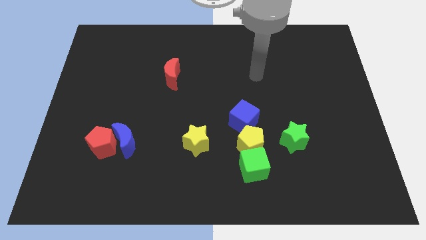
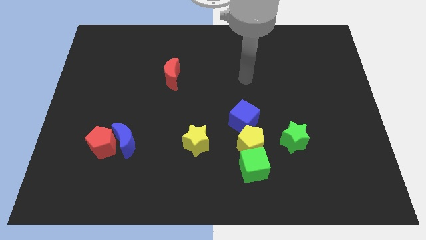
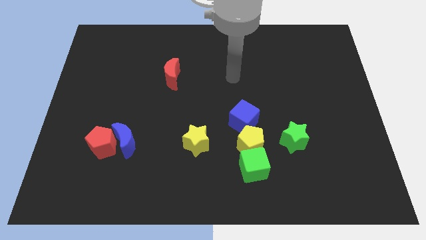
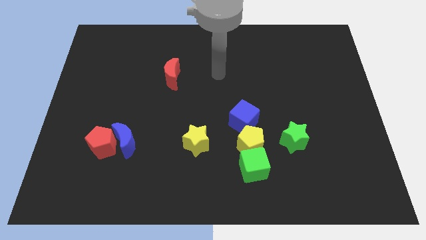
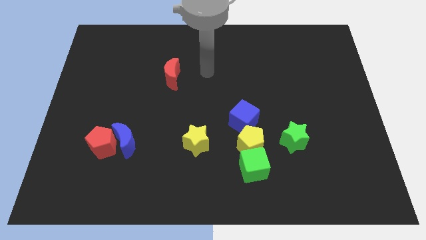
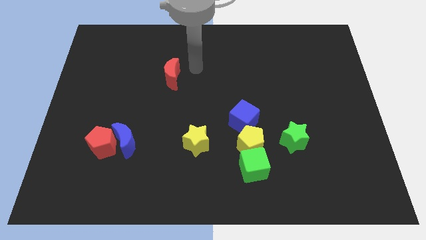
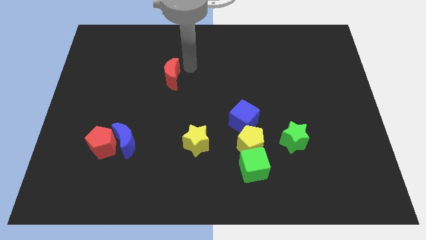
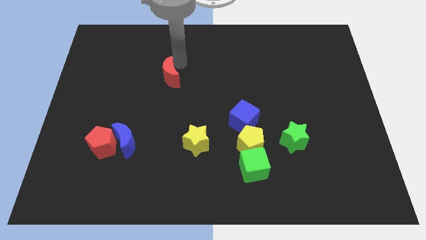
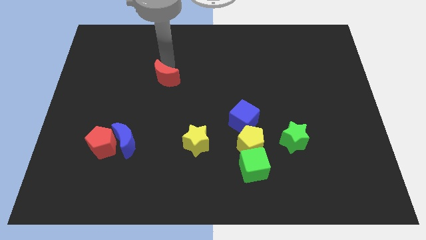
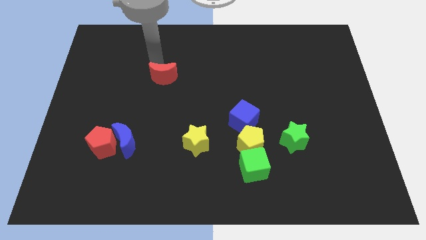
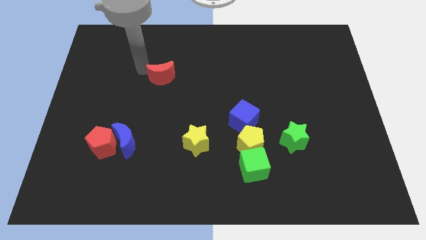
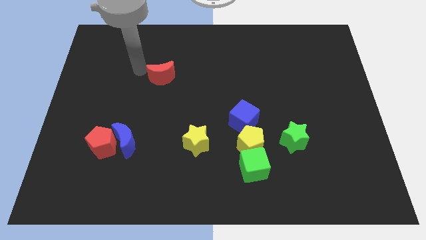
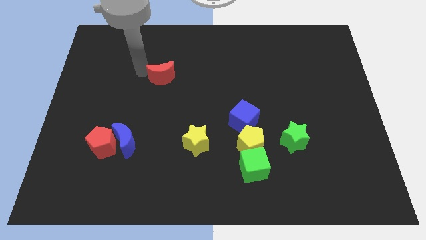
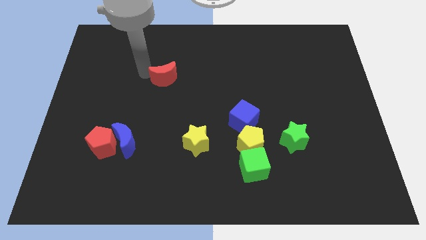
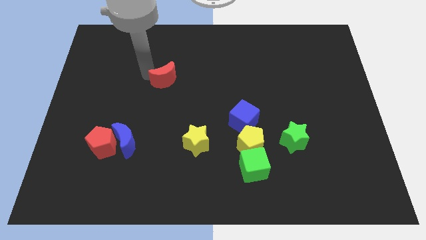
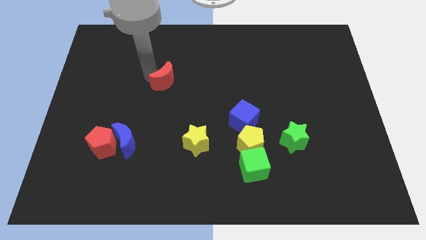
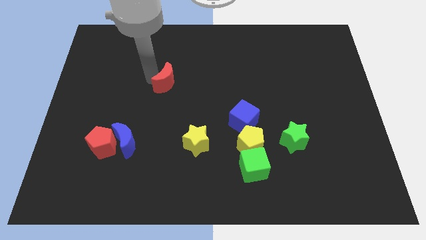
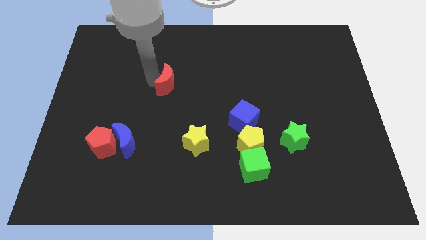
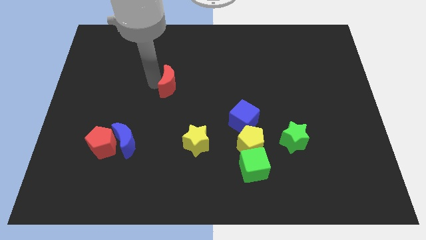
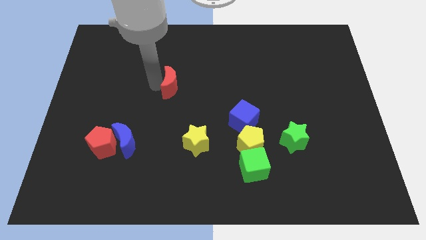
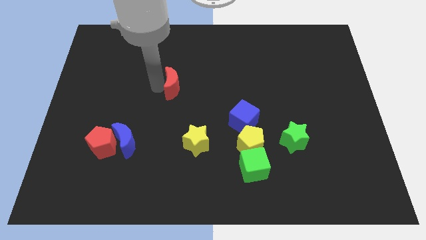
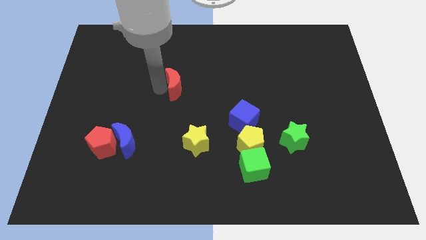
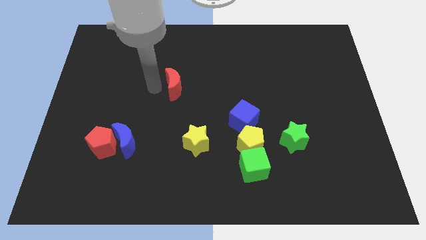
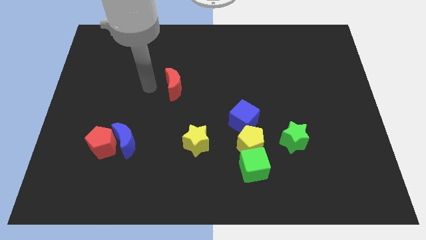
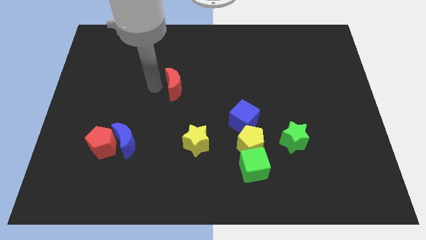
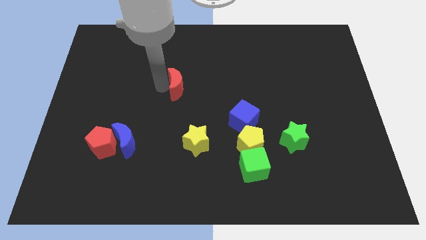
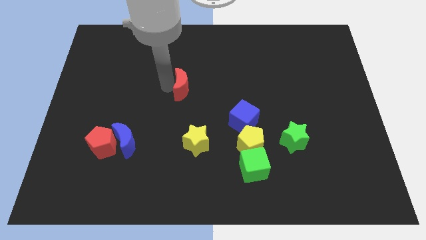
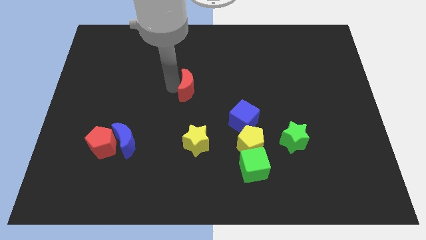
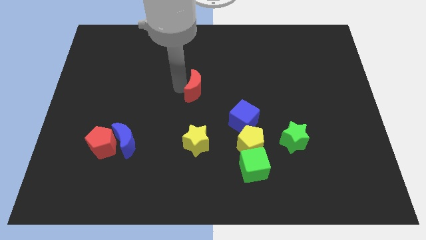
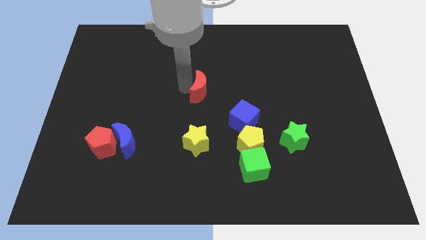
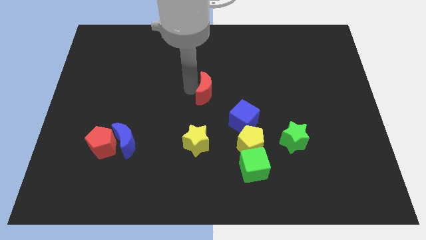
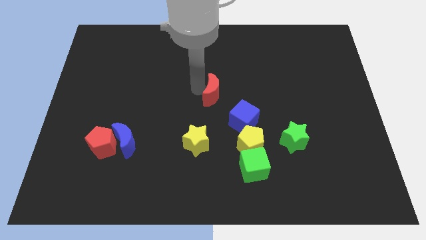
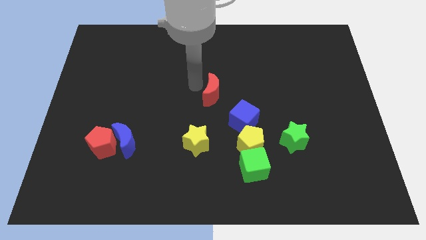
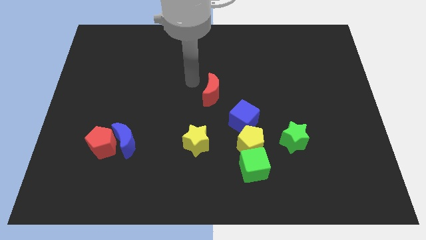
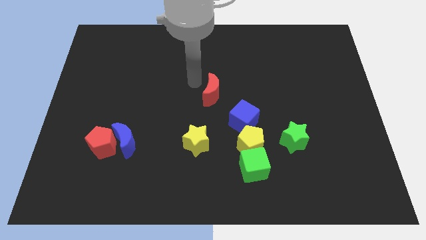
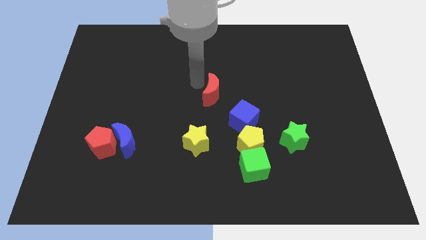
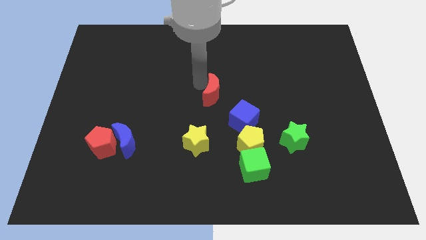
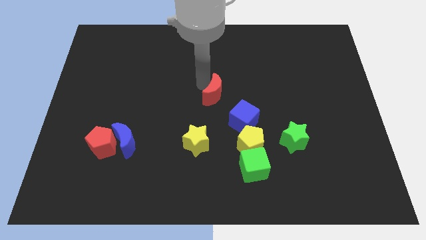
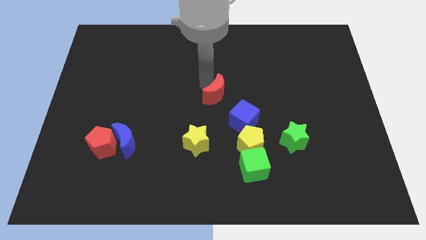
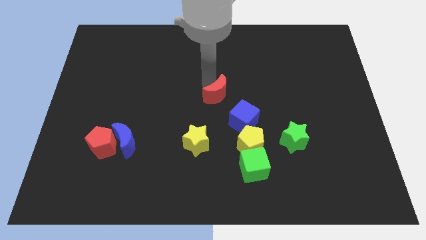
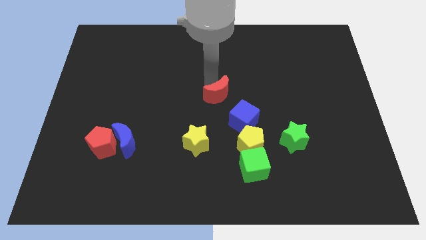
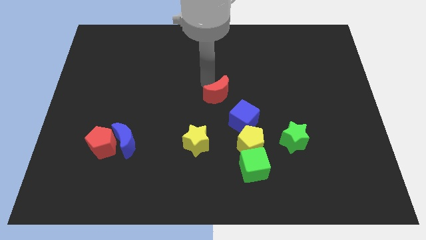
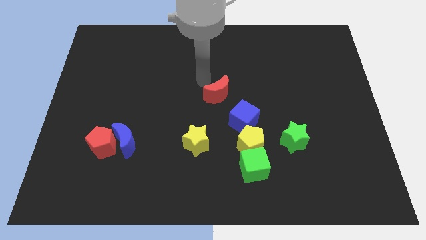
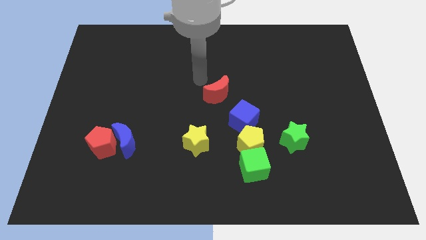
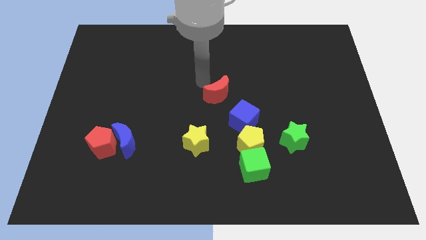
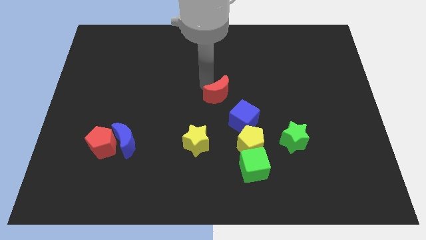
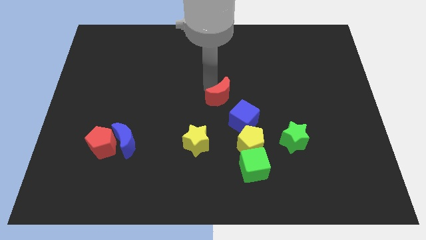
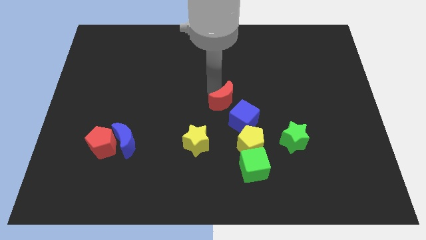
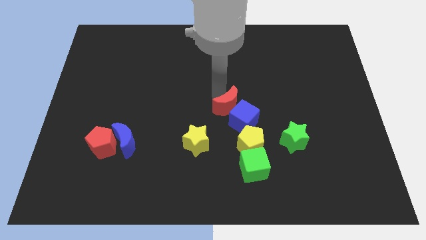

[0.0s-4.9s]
move the red moon towards the blue cube

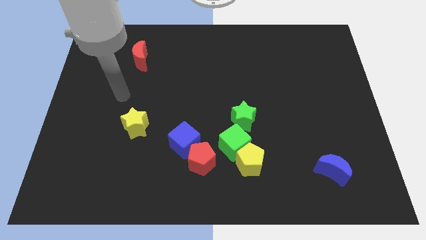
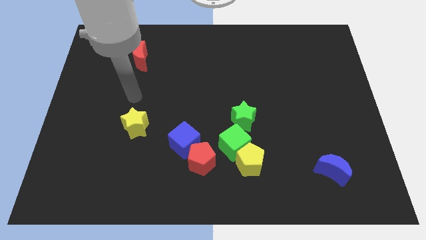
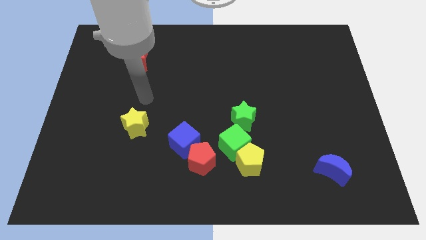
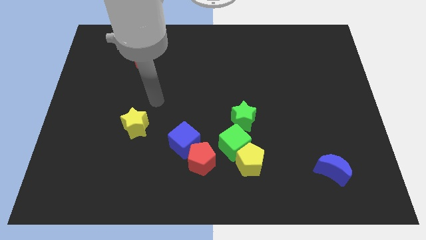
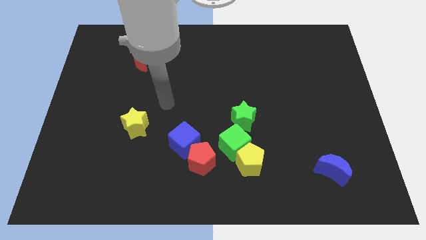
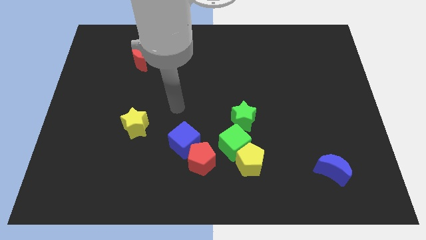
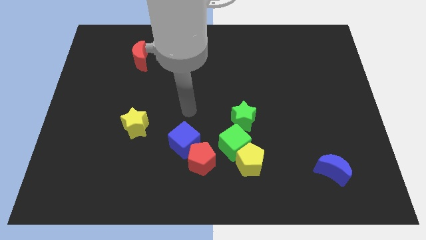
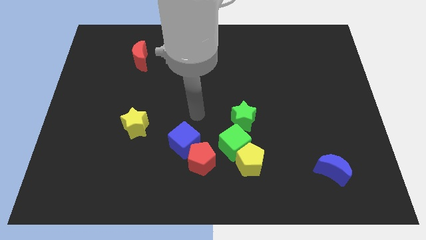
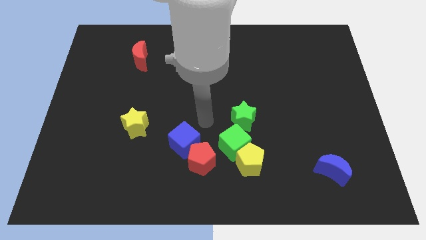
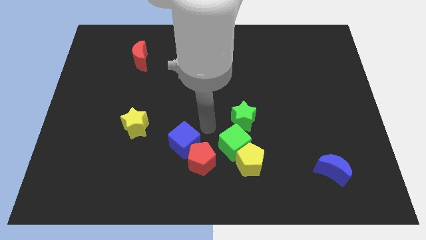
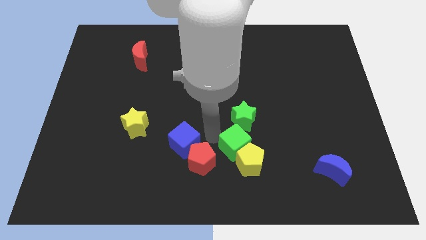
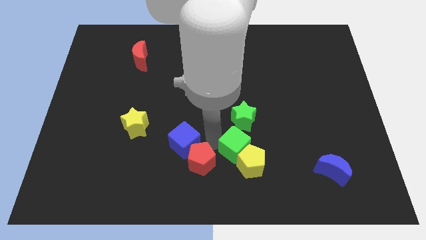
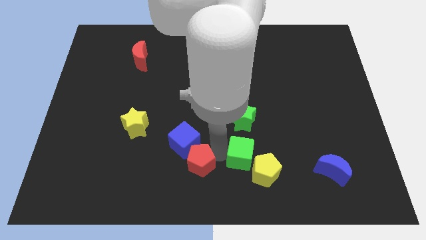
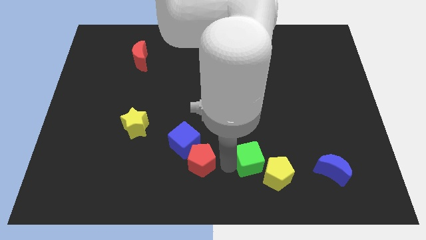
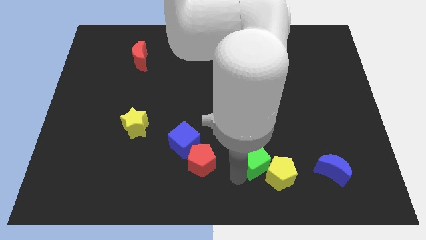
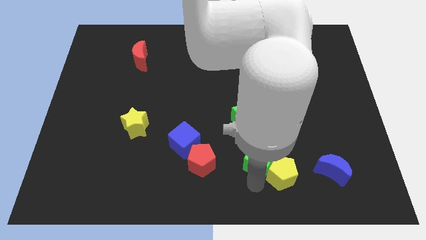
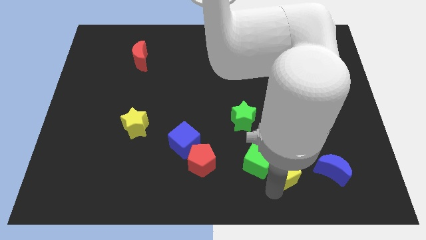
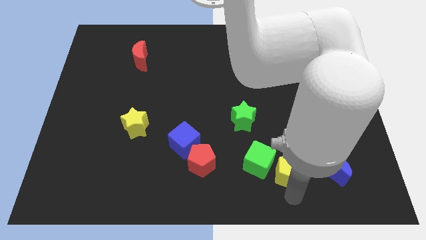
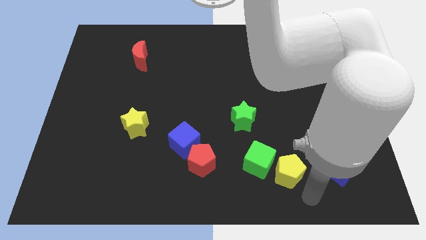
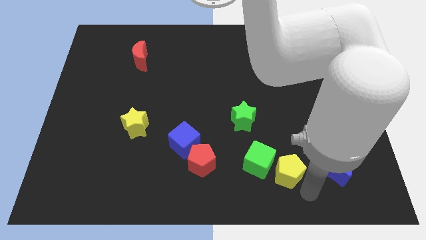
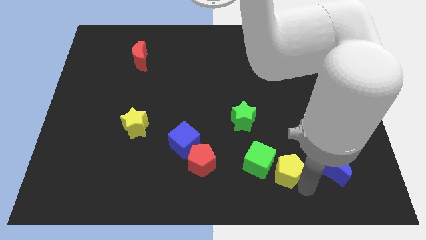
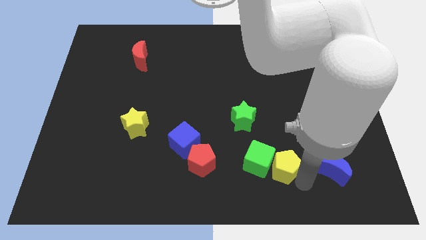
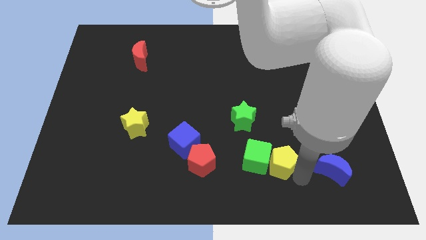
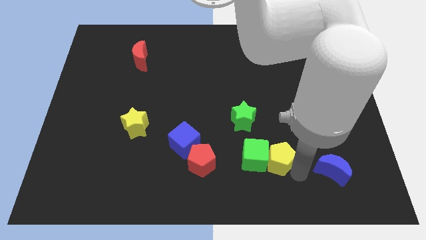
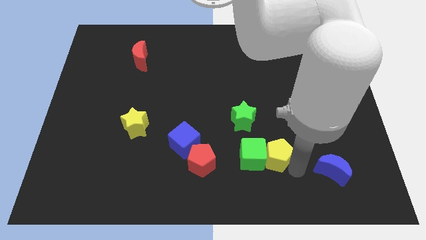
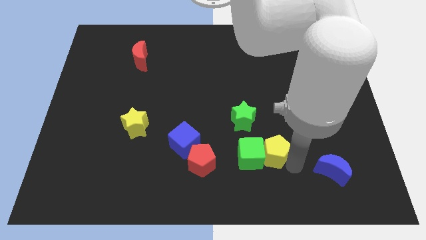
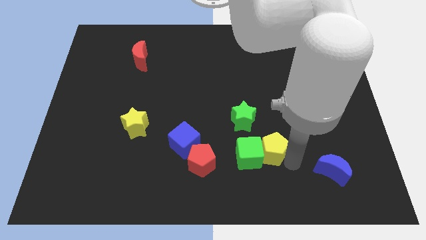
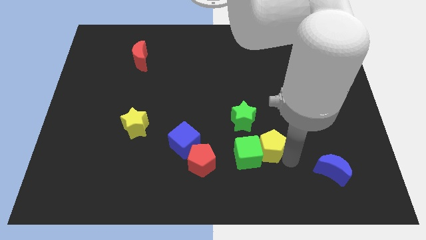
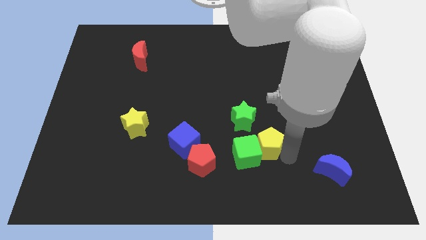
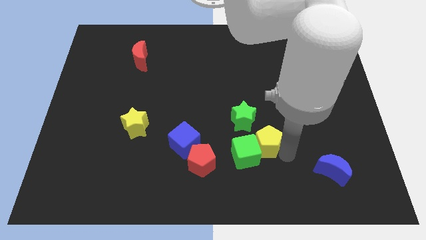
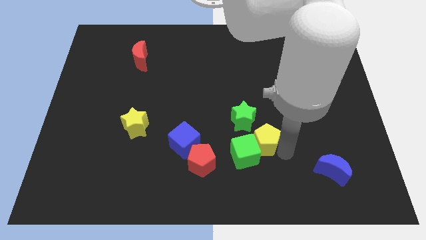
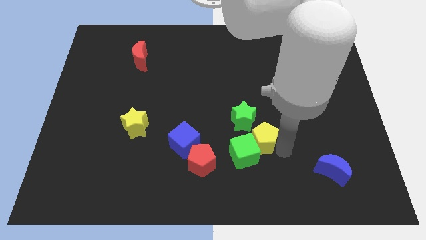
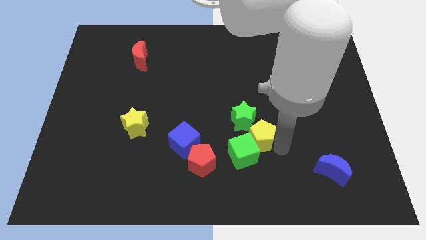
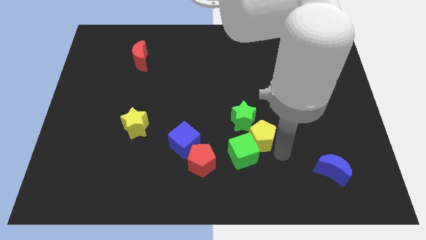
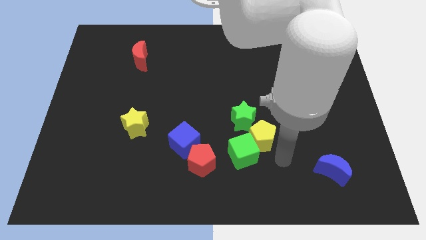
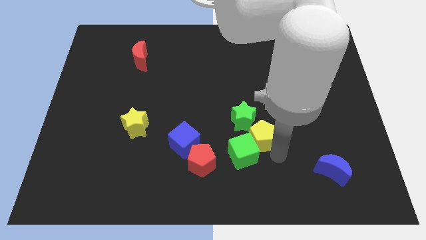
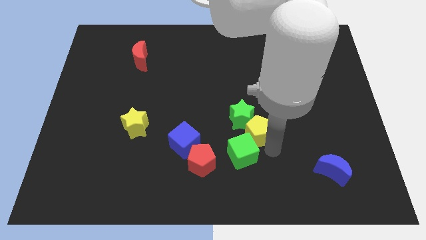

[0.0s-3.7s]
move the yellow pentagon towards the green star
